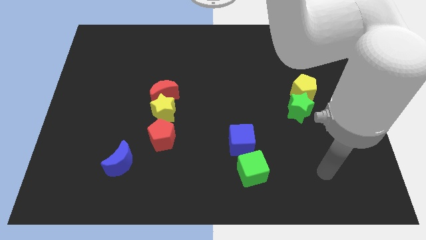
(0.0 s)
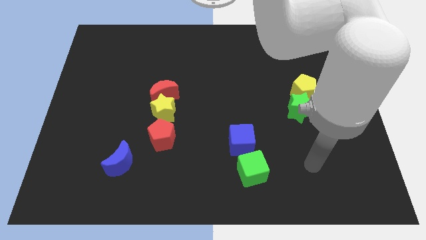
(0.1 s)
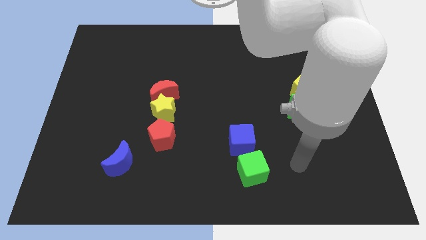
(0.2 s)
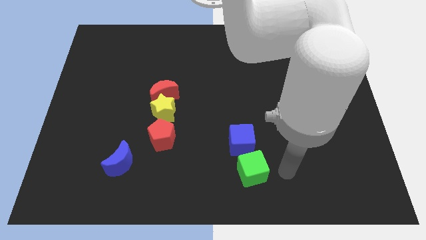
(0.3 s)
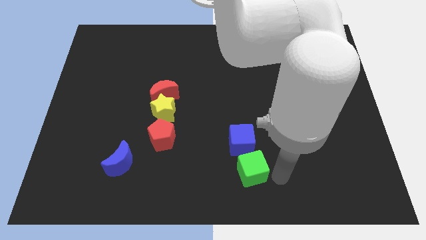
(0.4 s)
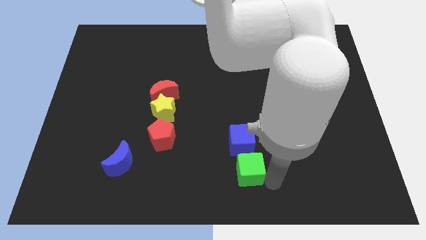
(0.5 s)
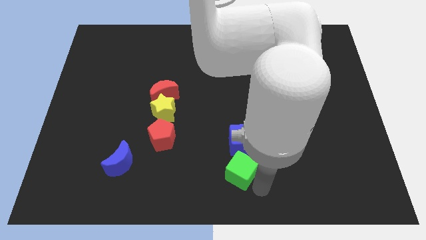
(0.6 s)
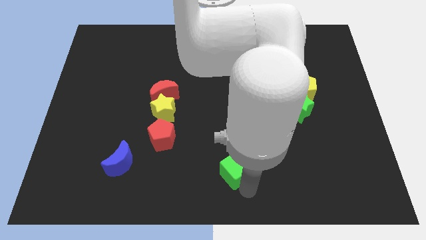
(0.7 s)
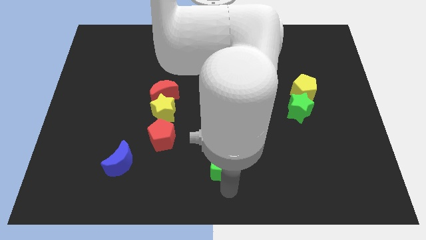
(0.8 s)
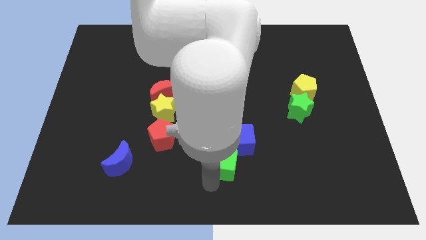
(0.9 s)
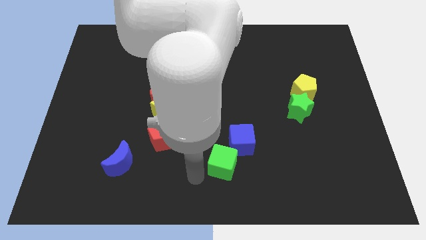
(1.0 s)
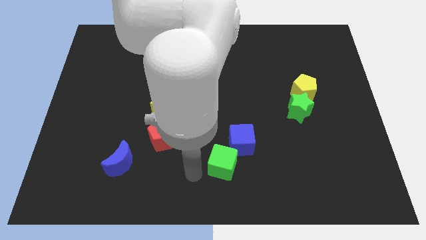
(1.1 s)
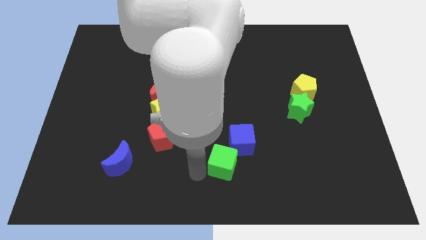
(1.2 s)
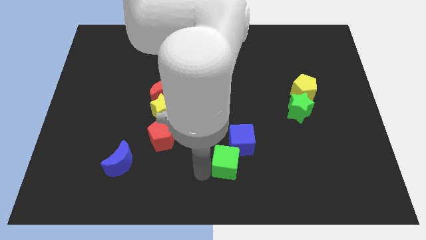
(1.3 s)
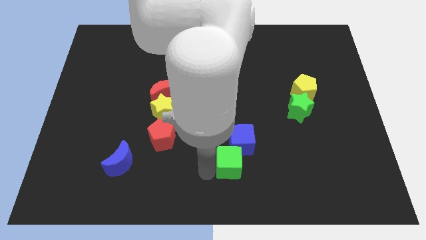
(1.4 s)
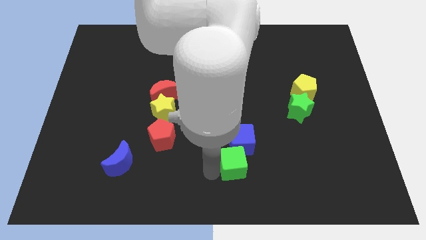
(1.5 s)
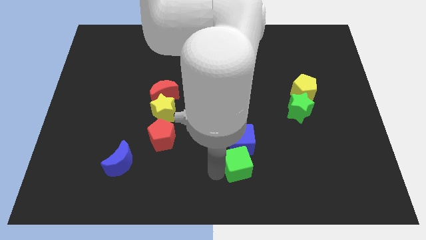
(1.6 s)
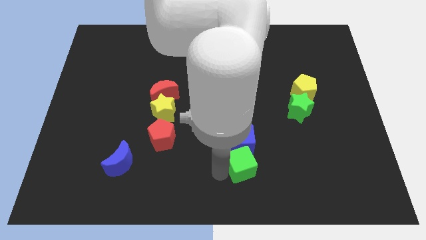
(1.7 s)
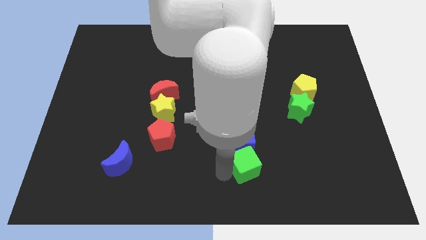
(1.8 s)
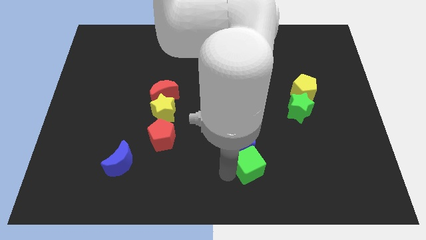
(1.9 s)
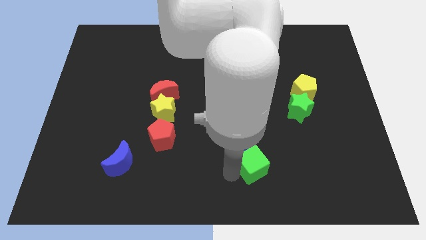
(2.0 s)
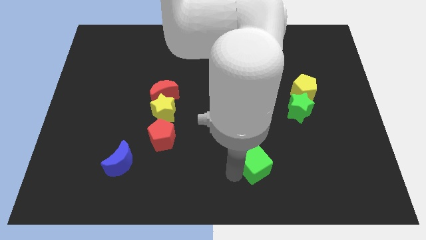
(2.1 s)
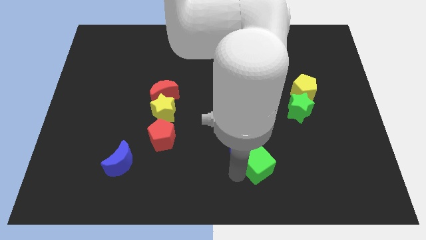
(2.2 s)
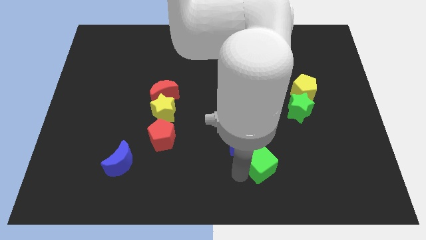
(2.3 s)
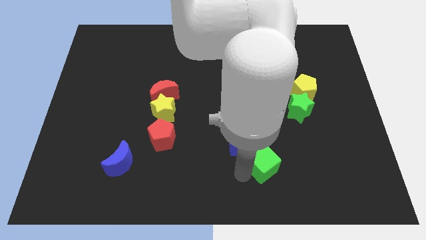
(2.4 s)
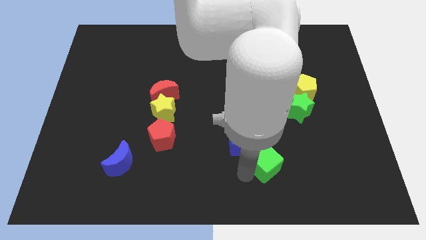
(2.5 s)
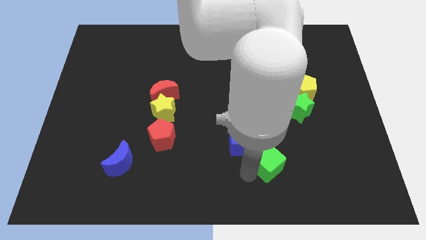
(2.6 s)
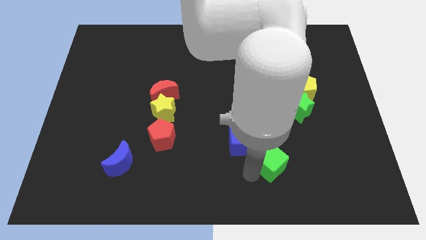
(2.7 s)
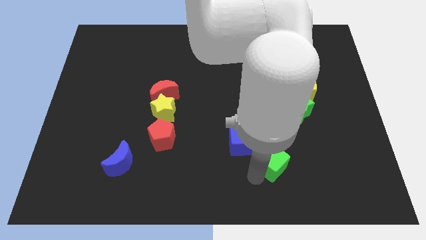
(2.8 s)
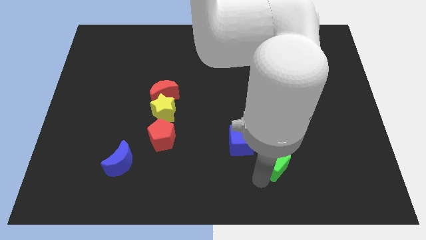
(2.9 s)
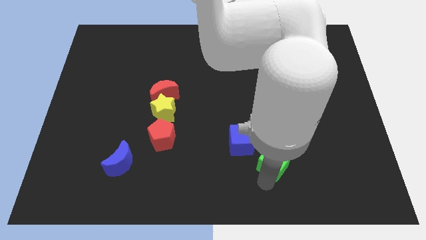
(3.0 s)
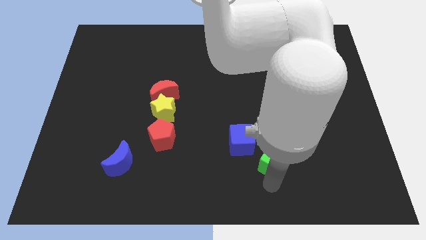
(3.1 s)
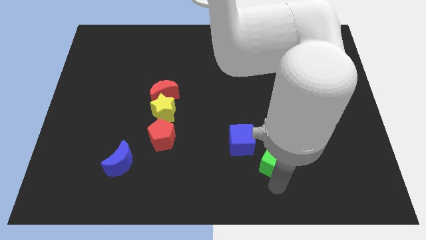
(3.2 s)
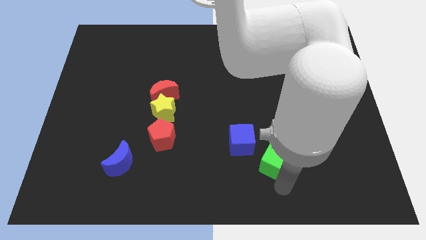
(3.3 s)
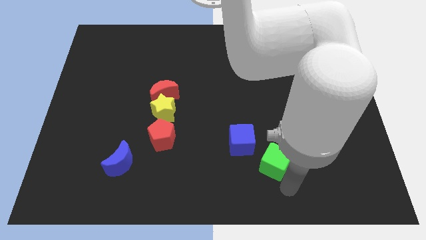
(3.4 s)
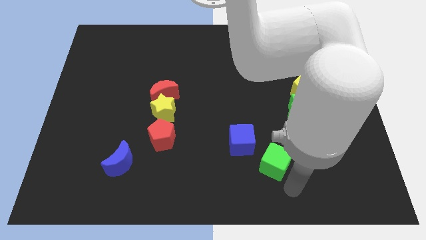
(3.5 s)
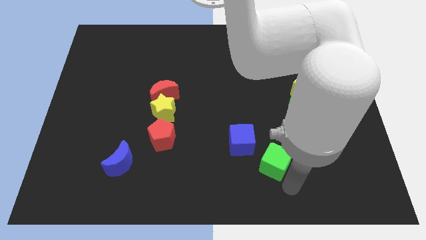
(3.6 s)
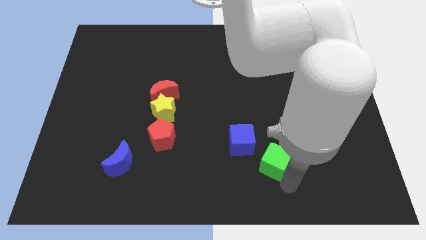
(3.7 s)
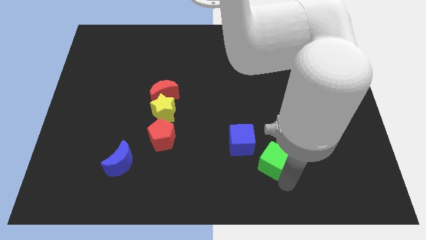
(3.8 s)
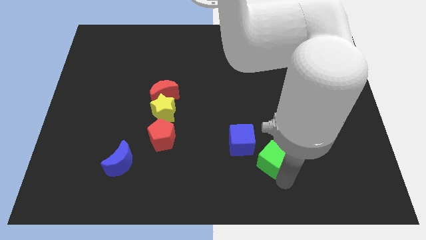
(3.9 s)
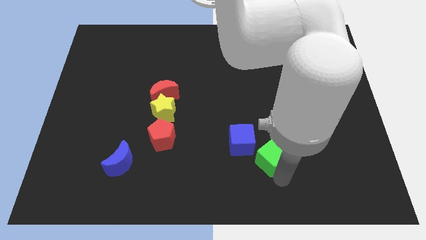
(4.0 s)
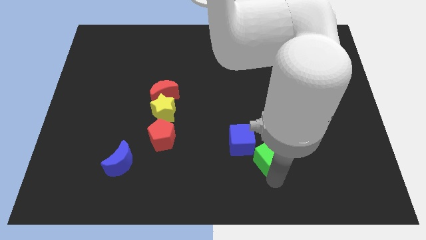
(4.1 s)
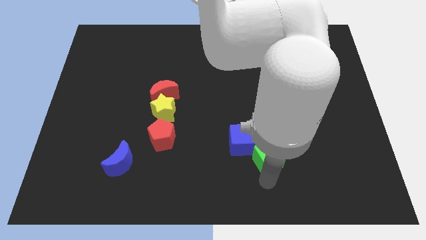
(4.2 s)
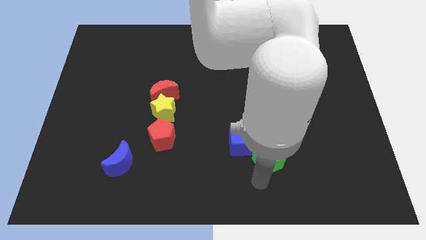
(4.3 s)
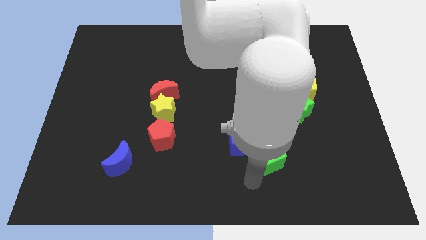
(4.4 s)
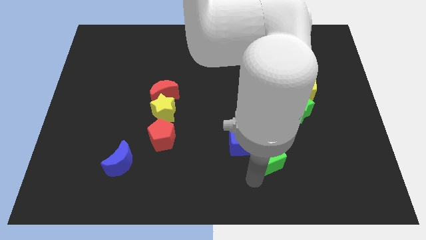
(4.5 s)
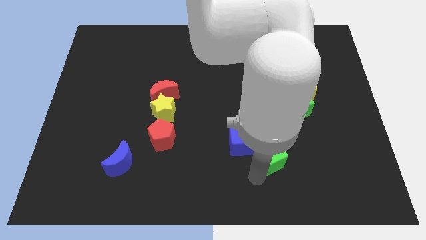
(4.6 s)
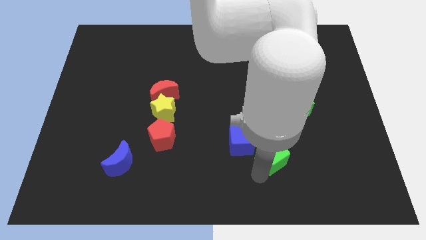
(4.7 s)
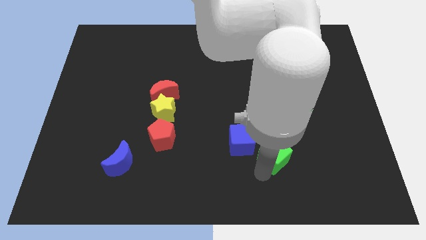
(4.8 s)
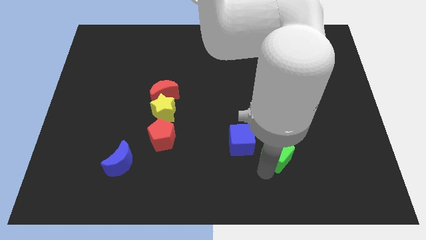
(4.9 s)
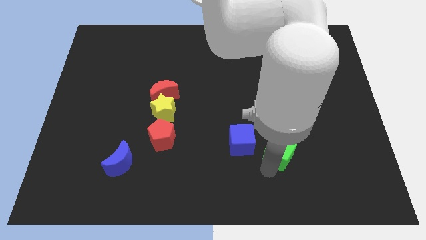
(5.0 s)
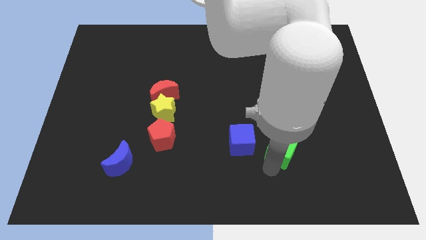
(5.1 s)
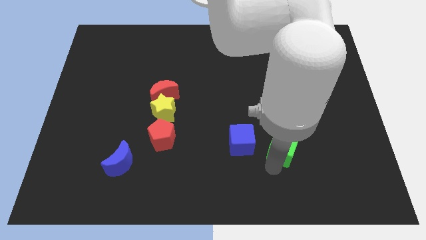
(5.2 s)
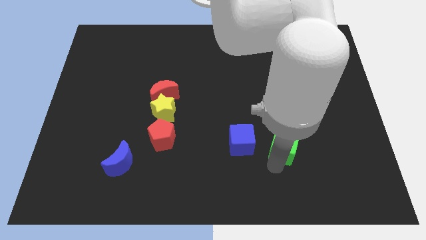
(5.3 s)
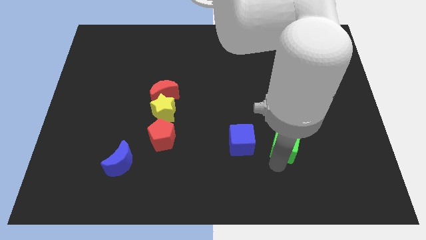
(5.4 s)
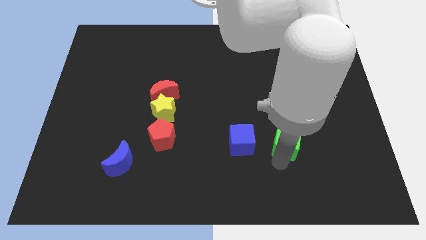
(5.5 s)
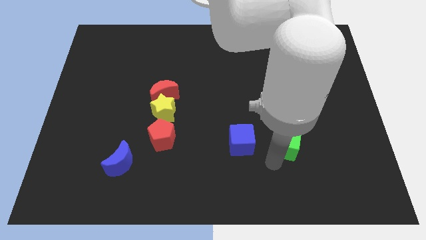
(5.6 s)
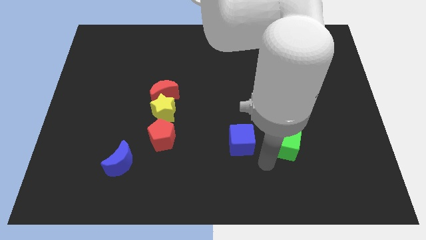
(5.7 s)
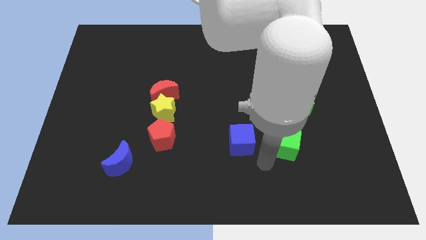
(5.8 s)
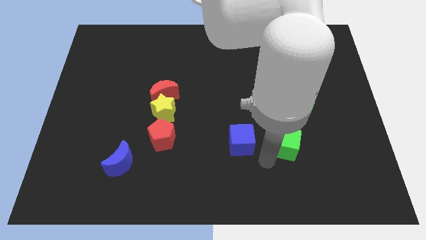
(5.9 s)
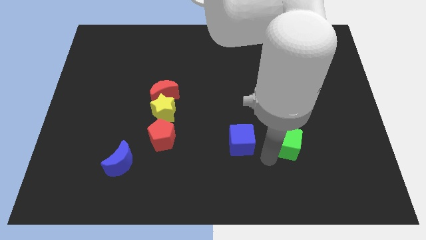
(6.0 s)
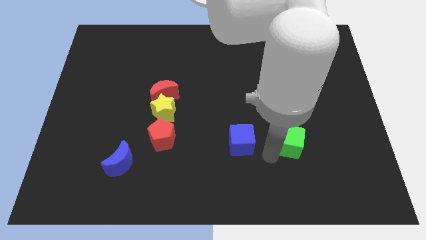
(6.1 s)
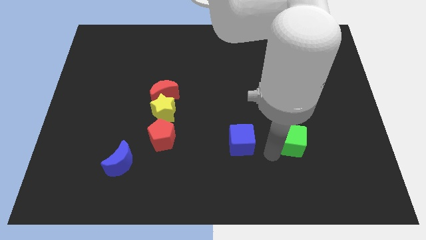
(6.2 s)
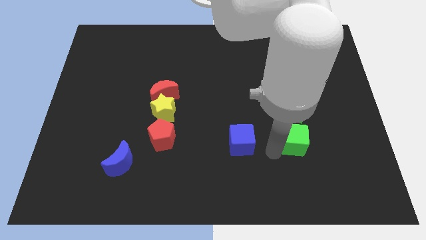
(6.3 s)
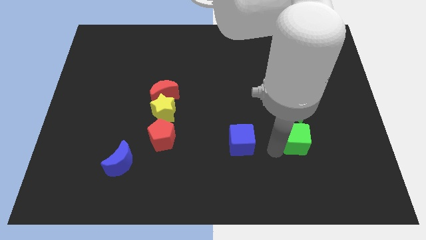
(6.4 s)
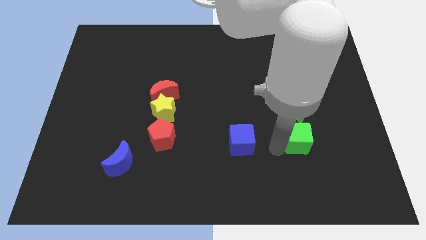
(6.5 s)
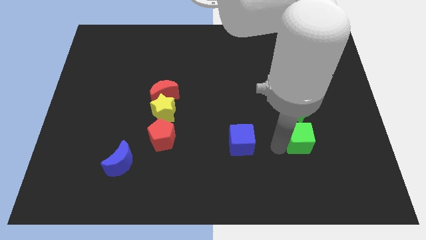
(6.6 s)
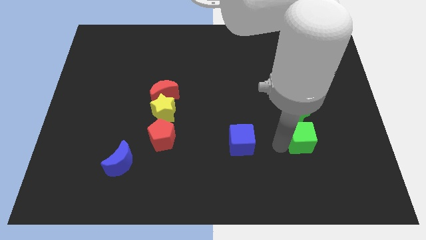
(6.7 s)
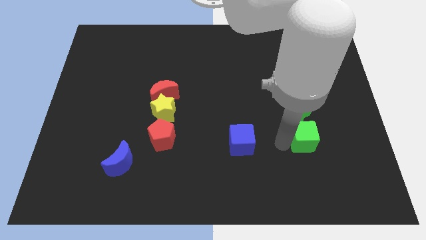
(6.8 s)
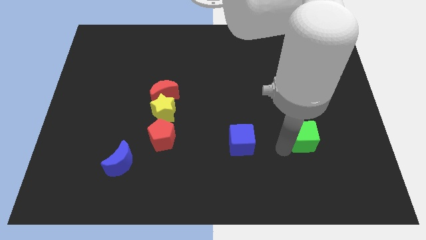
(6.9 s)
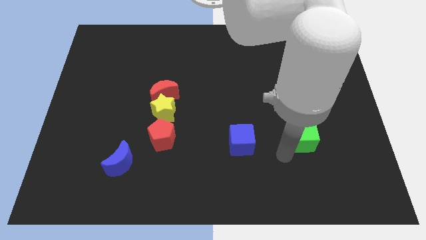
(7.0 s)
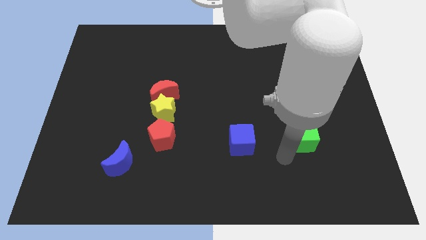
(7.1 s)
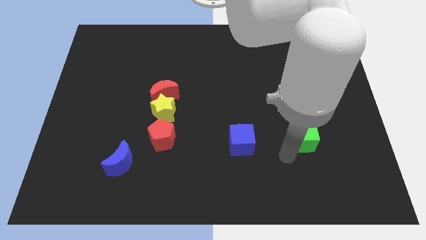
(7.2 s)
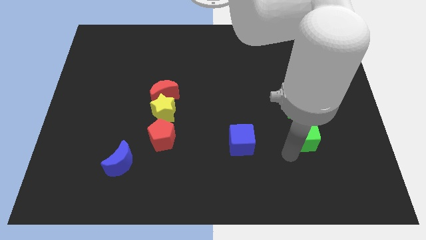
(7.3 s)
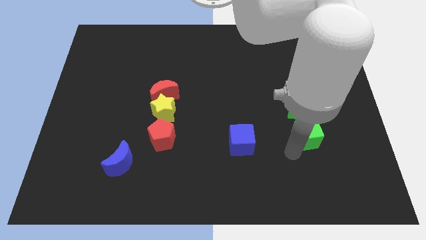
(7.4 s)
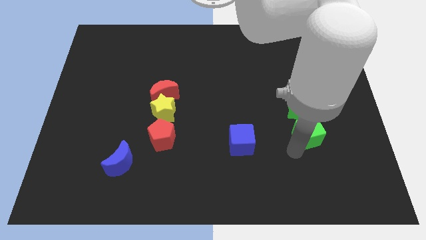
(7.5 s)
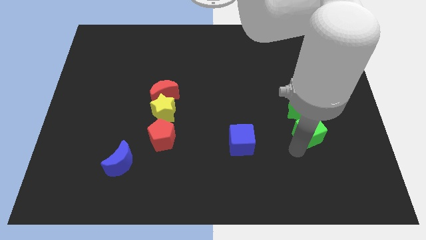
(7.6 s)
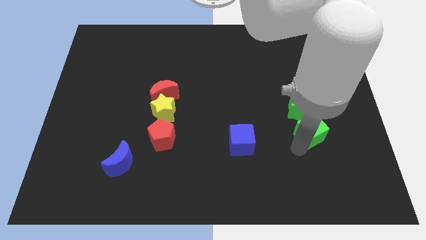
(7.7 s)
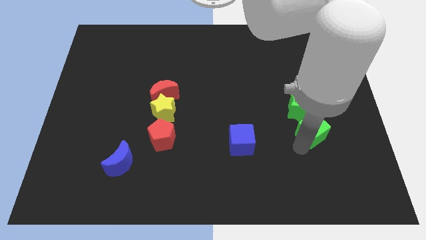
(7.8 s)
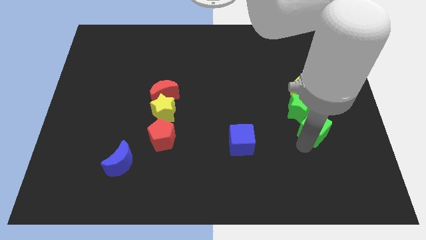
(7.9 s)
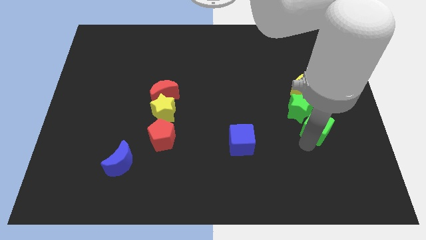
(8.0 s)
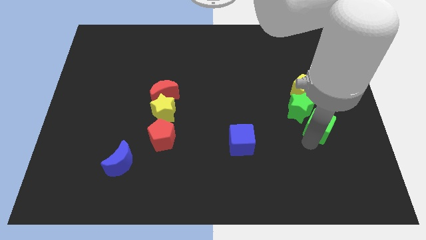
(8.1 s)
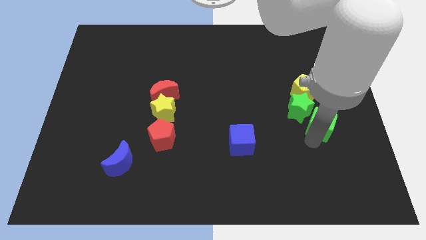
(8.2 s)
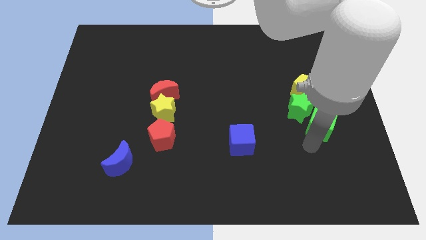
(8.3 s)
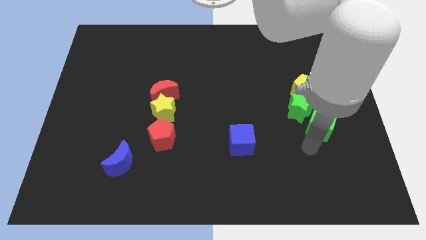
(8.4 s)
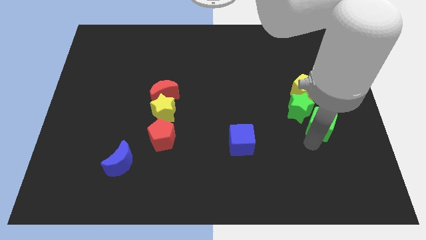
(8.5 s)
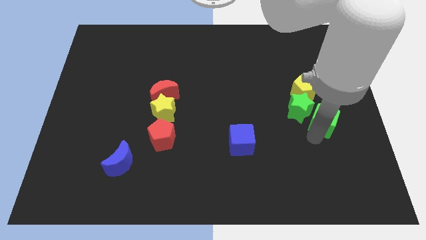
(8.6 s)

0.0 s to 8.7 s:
move the green cube to the bottom right of the yellow pentagon
